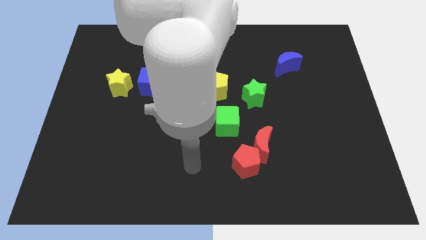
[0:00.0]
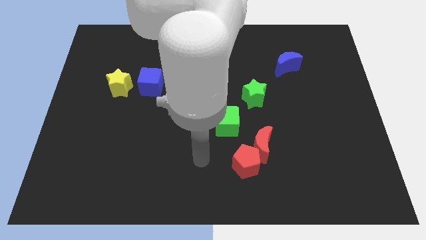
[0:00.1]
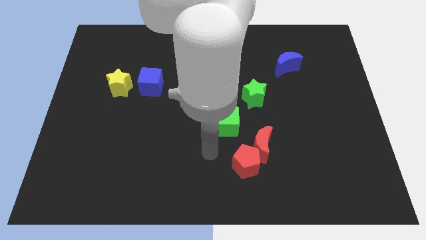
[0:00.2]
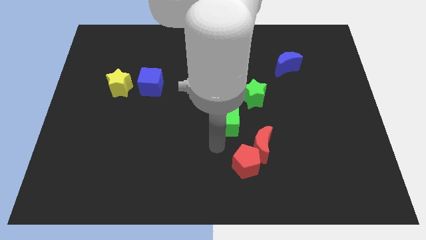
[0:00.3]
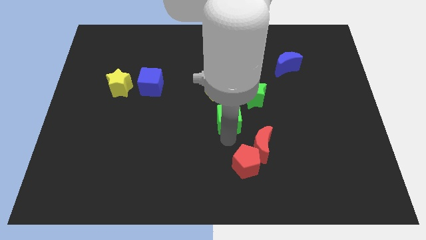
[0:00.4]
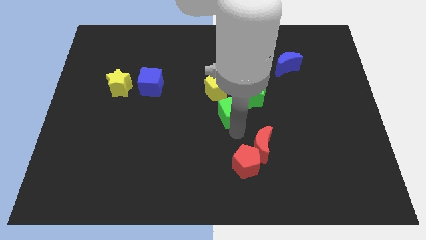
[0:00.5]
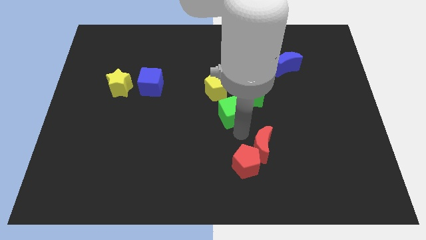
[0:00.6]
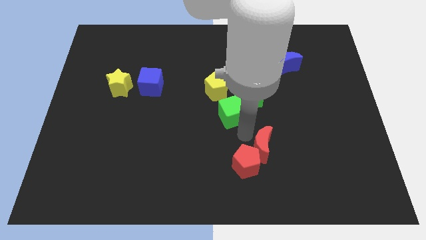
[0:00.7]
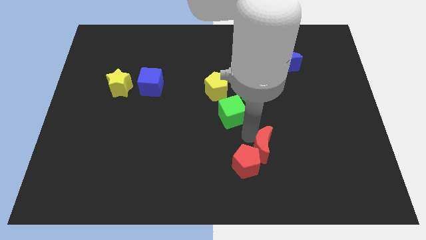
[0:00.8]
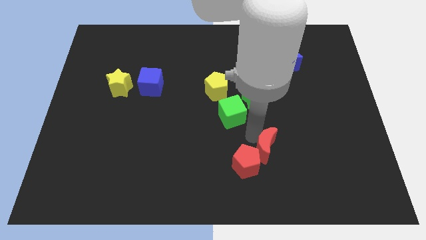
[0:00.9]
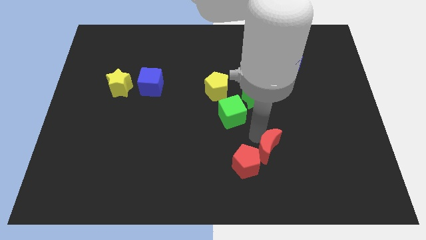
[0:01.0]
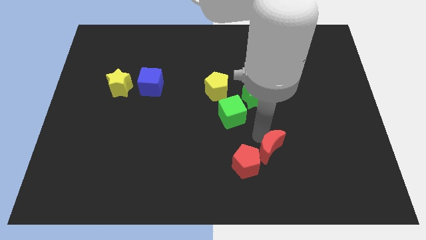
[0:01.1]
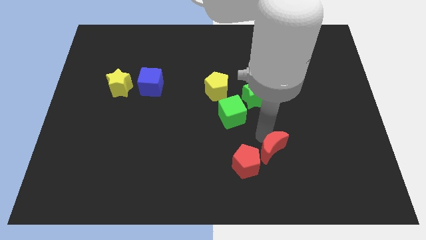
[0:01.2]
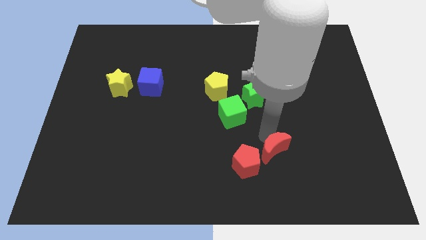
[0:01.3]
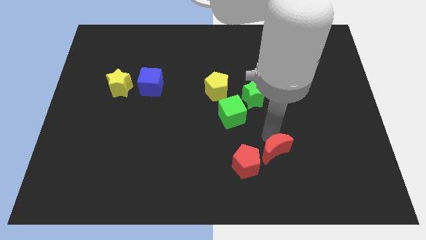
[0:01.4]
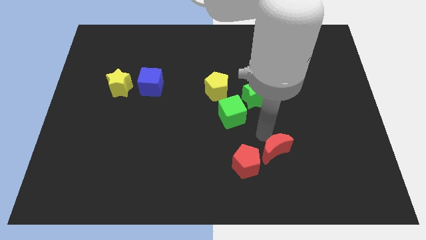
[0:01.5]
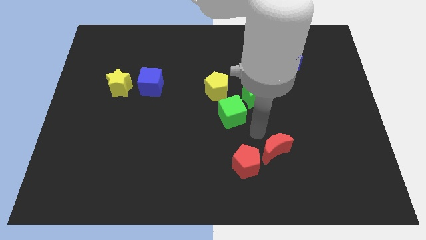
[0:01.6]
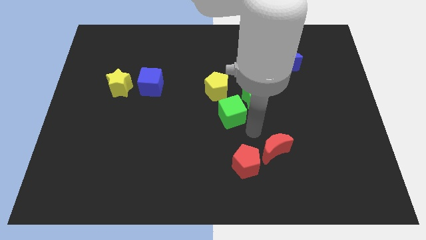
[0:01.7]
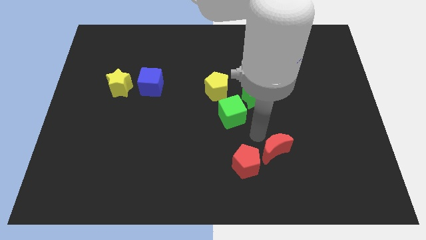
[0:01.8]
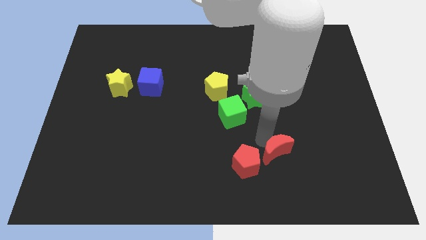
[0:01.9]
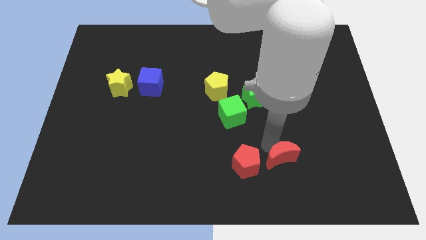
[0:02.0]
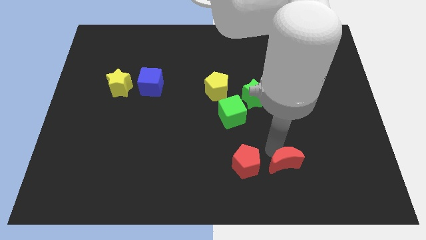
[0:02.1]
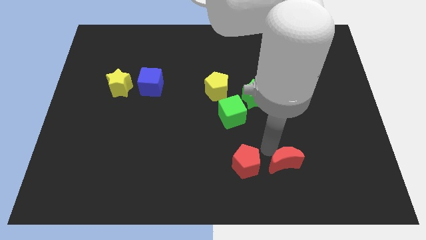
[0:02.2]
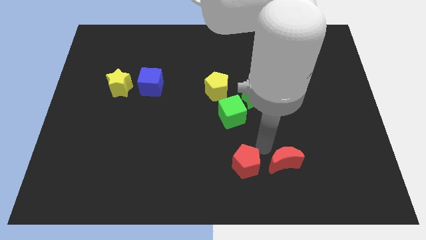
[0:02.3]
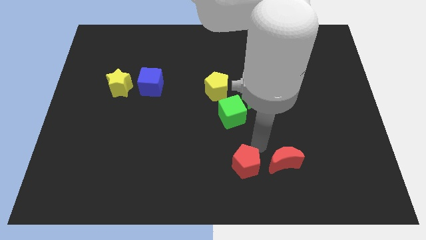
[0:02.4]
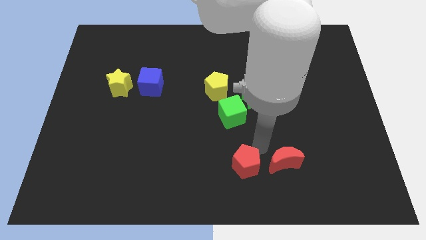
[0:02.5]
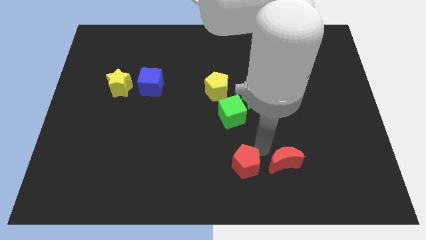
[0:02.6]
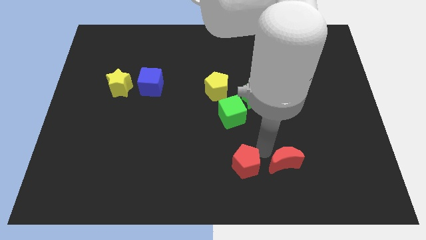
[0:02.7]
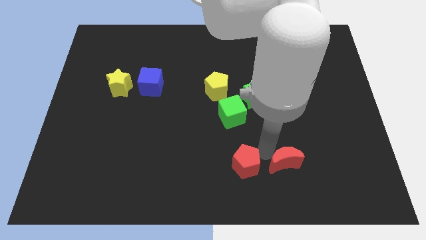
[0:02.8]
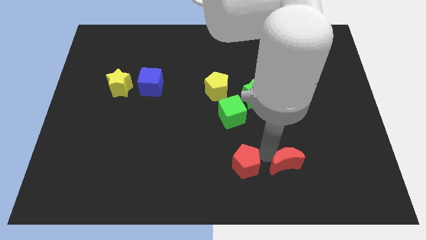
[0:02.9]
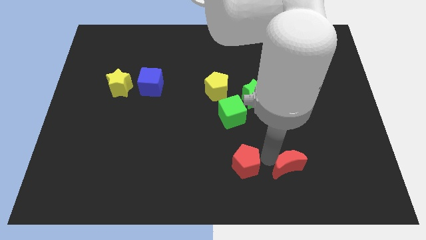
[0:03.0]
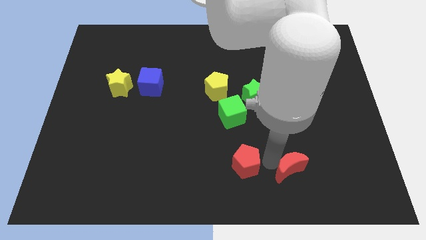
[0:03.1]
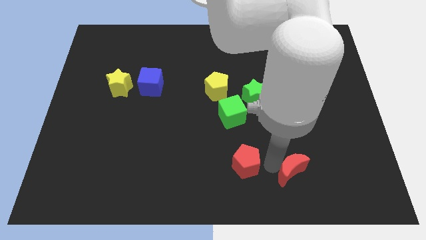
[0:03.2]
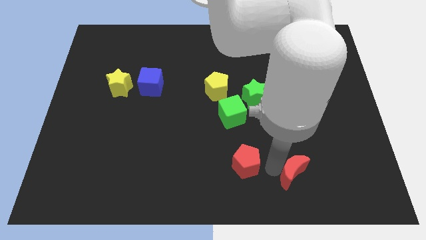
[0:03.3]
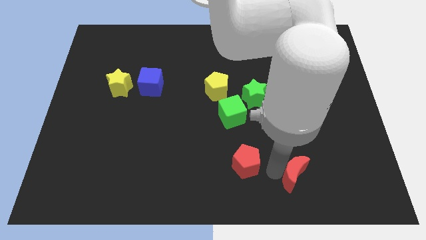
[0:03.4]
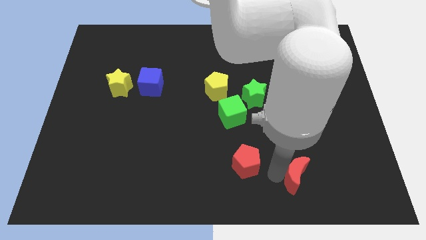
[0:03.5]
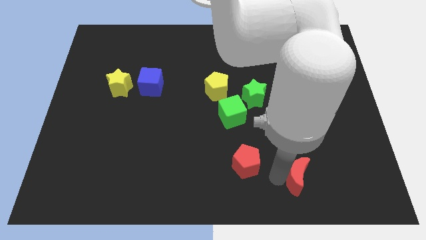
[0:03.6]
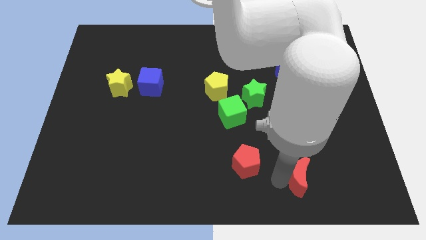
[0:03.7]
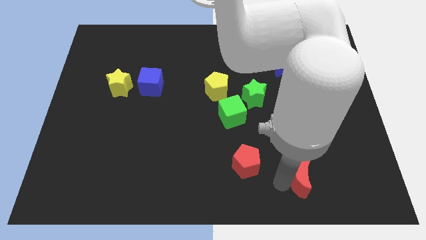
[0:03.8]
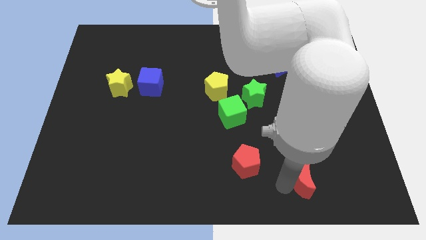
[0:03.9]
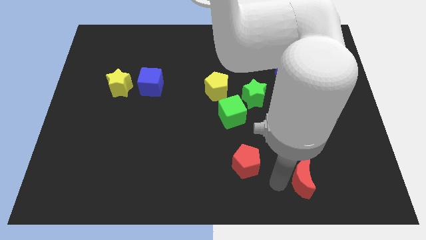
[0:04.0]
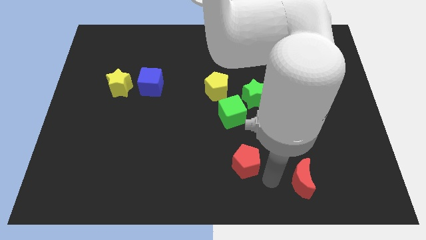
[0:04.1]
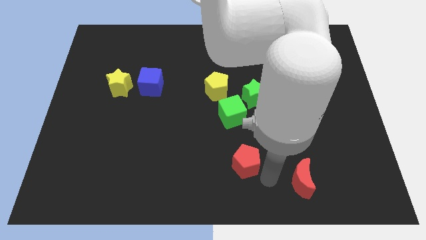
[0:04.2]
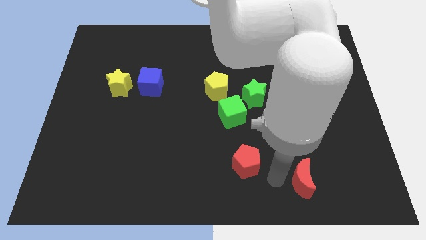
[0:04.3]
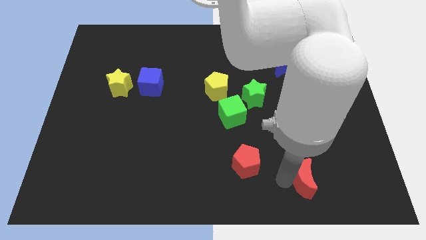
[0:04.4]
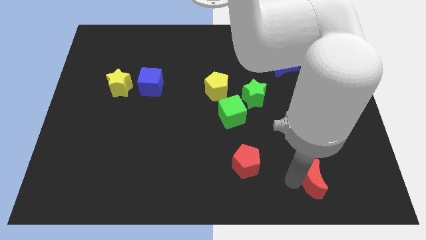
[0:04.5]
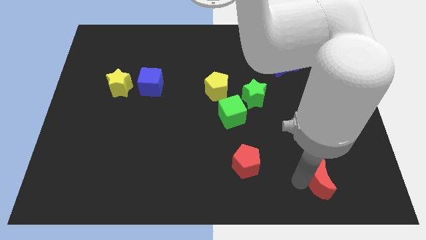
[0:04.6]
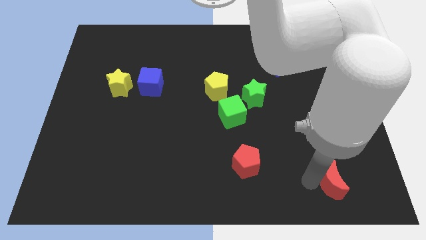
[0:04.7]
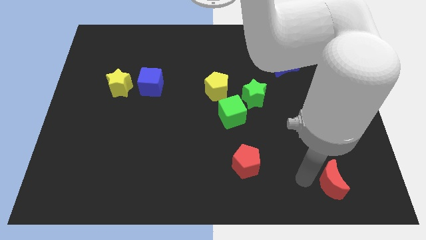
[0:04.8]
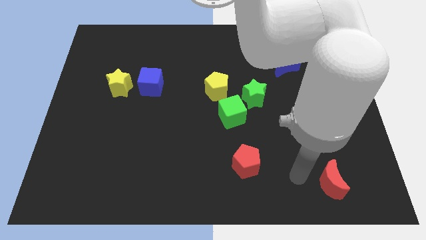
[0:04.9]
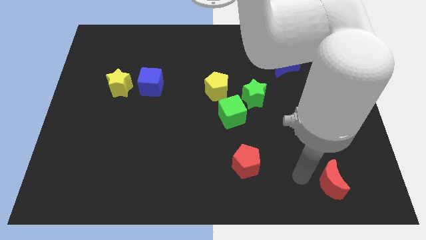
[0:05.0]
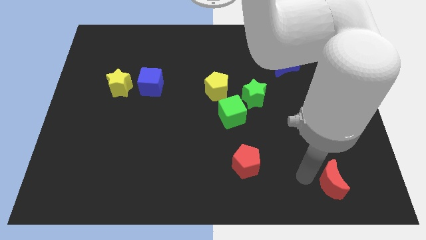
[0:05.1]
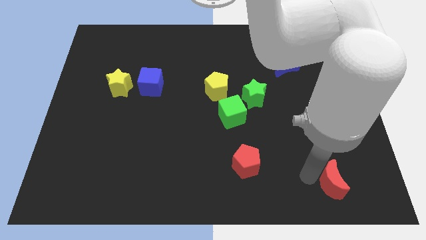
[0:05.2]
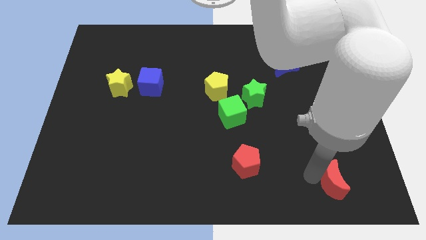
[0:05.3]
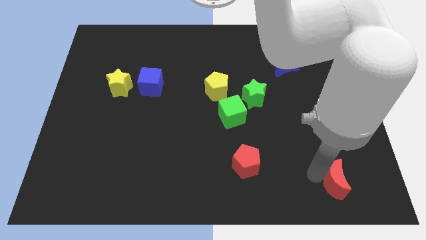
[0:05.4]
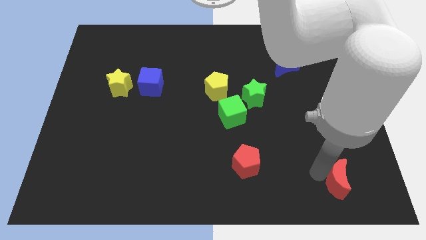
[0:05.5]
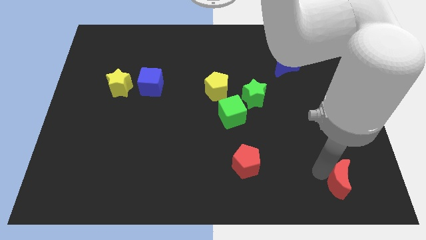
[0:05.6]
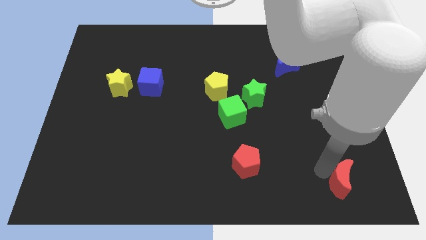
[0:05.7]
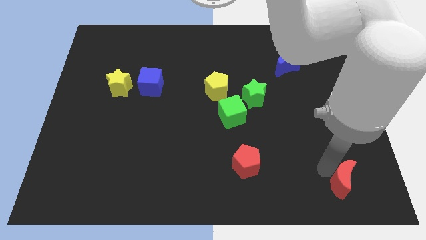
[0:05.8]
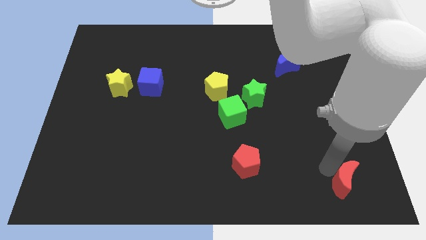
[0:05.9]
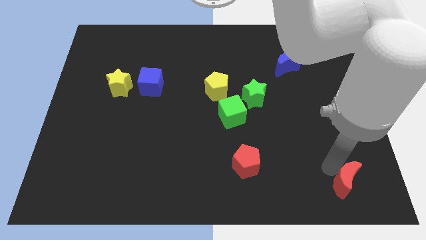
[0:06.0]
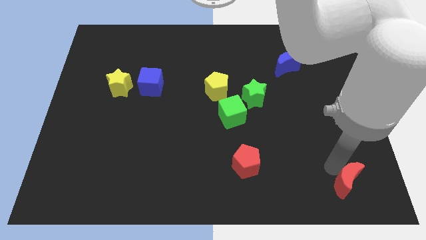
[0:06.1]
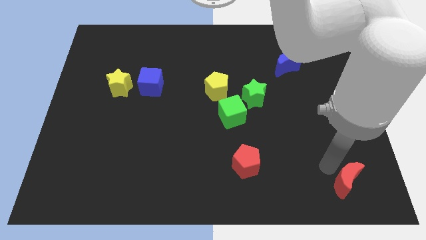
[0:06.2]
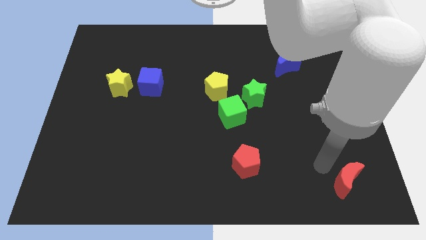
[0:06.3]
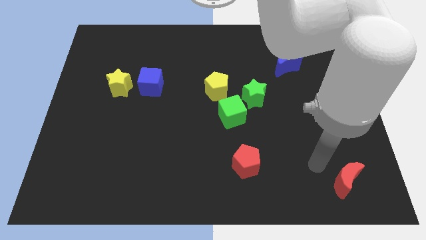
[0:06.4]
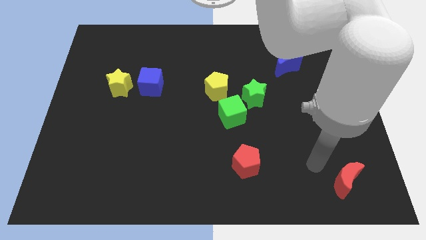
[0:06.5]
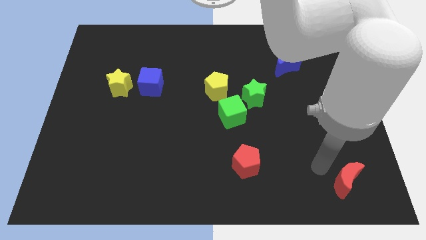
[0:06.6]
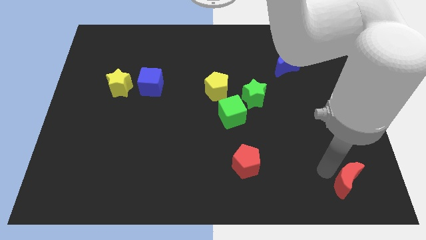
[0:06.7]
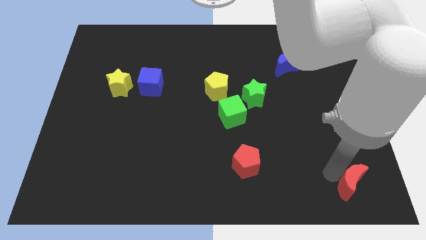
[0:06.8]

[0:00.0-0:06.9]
move the red moon to the lower right corner

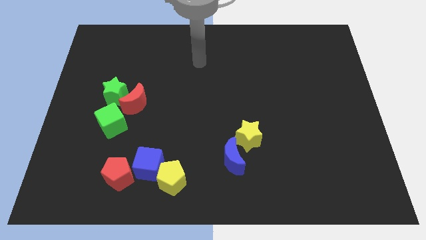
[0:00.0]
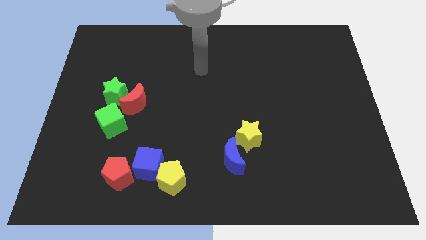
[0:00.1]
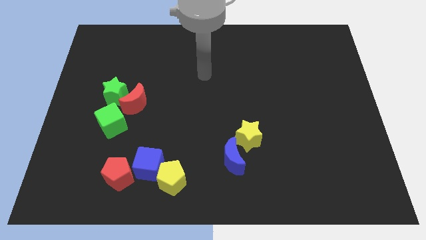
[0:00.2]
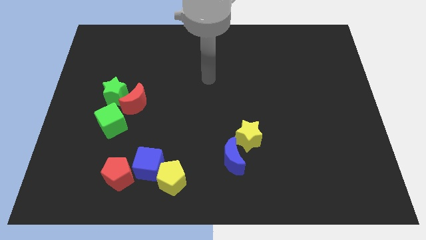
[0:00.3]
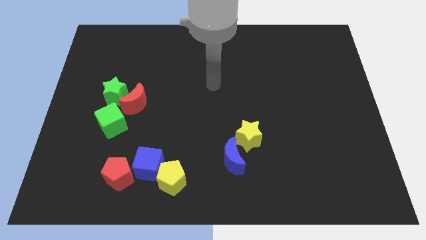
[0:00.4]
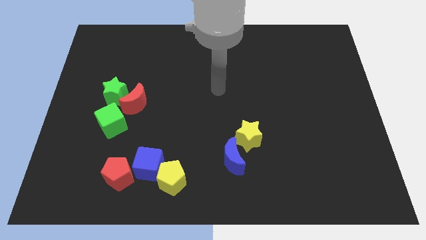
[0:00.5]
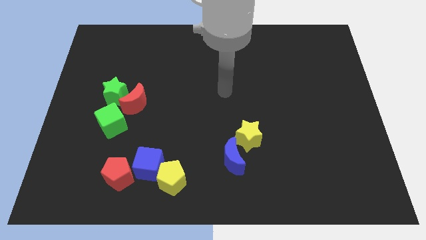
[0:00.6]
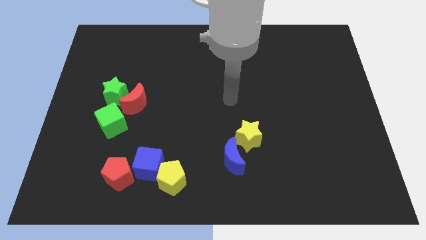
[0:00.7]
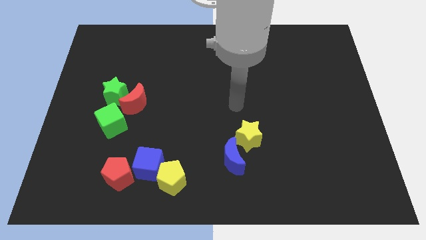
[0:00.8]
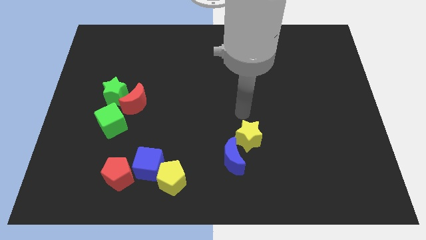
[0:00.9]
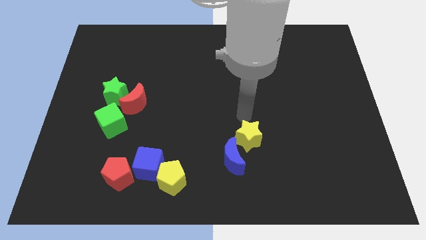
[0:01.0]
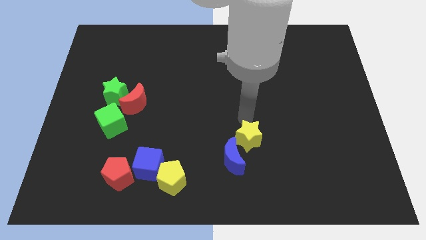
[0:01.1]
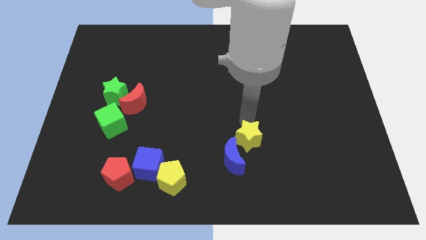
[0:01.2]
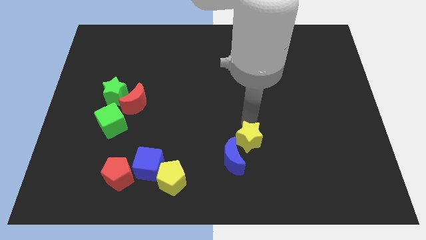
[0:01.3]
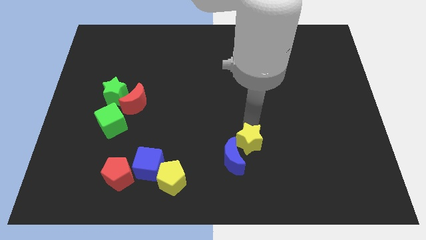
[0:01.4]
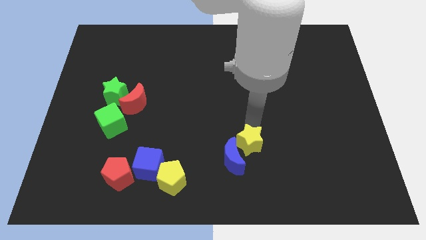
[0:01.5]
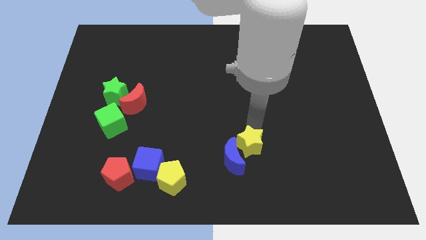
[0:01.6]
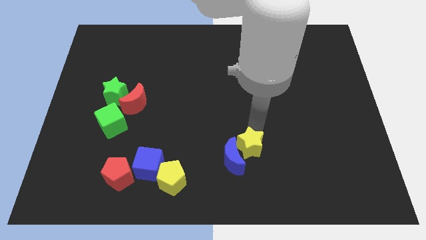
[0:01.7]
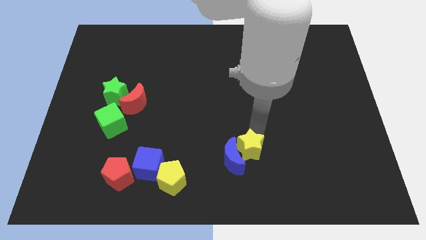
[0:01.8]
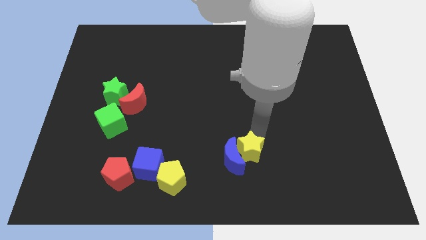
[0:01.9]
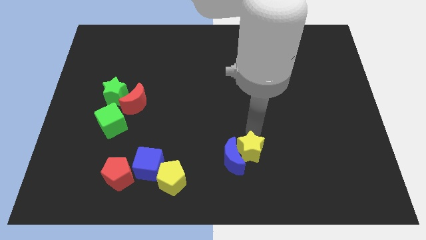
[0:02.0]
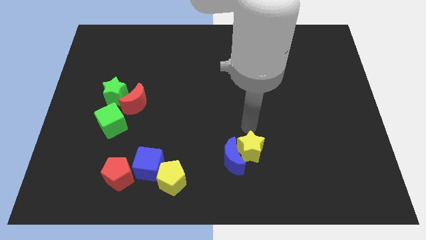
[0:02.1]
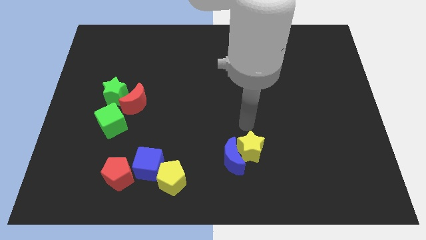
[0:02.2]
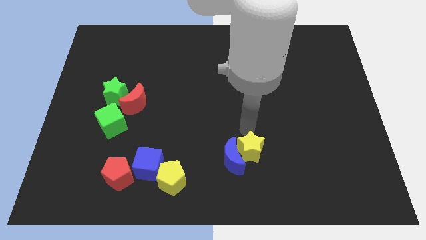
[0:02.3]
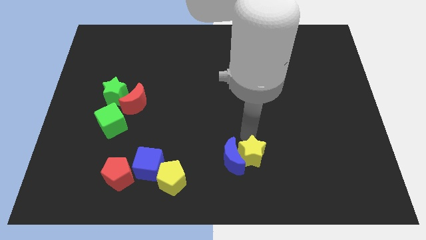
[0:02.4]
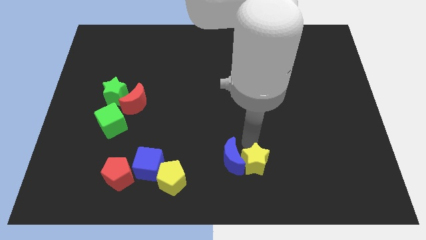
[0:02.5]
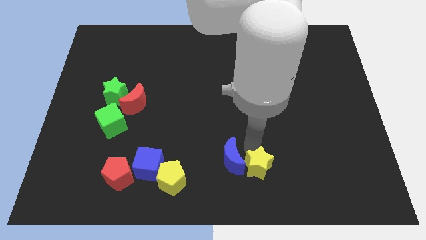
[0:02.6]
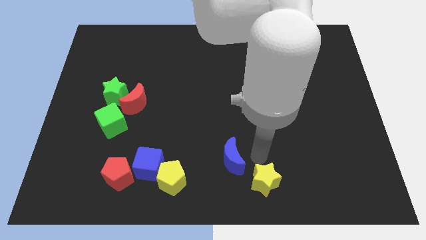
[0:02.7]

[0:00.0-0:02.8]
slide the yellow star to the bottom
